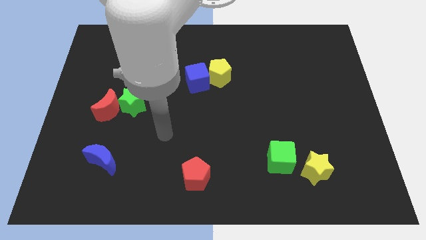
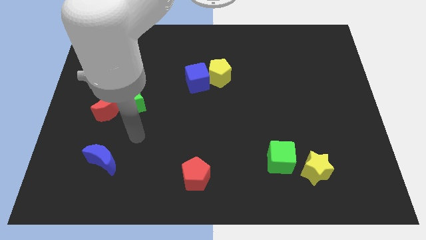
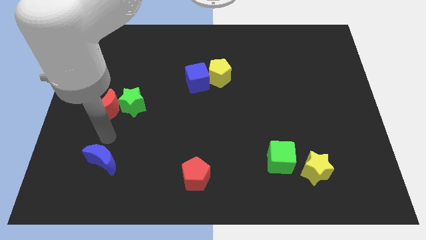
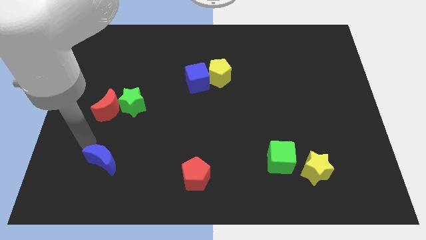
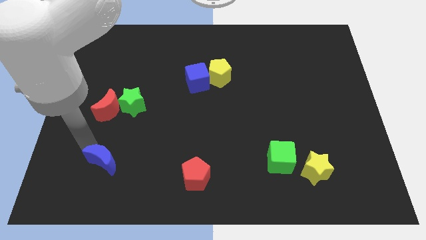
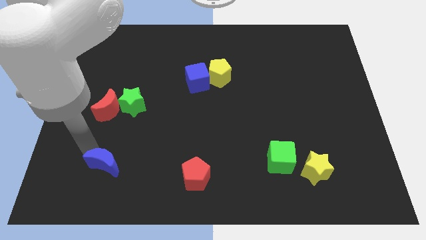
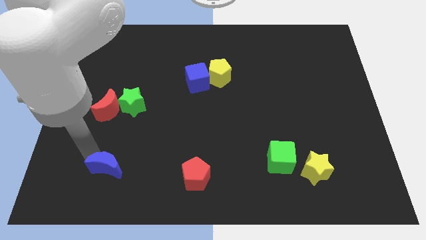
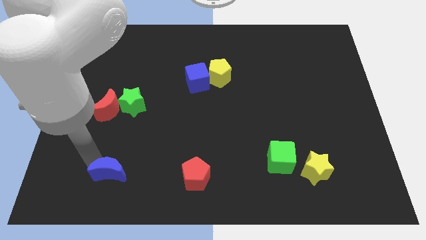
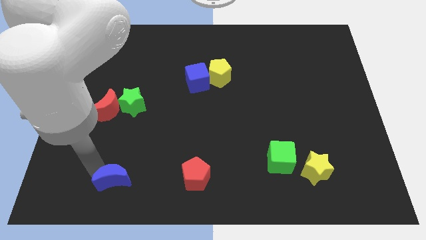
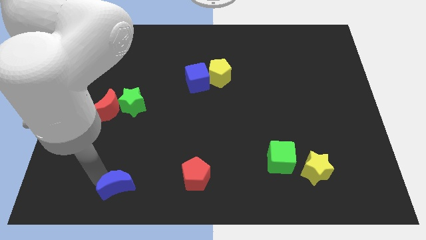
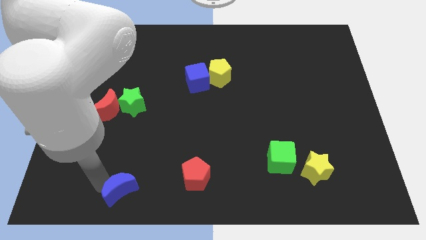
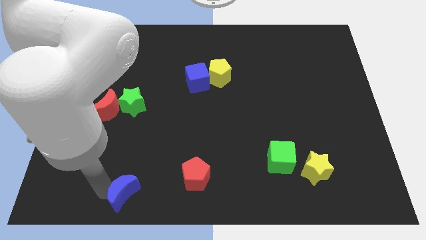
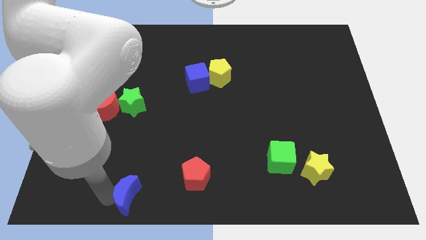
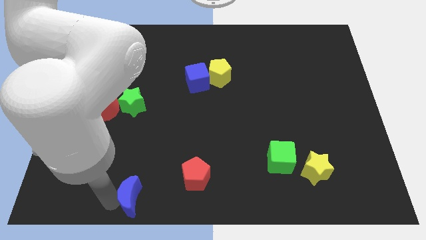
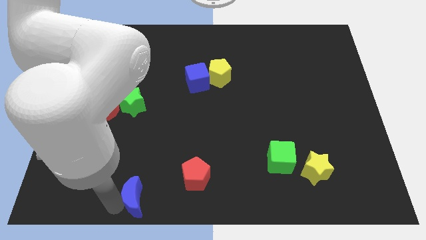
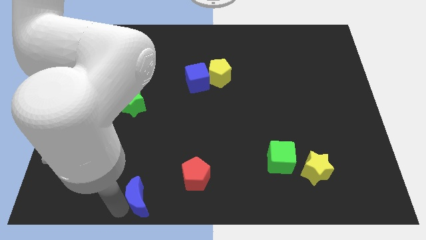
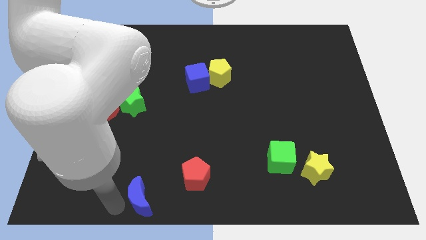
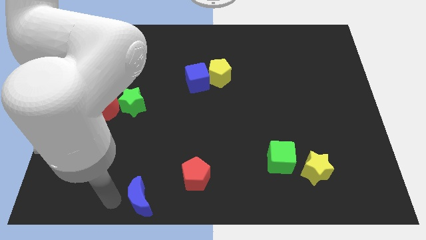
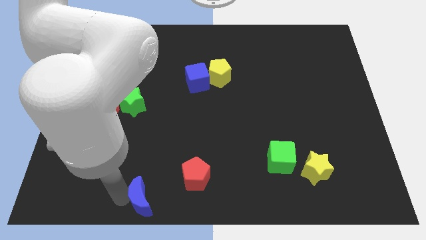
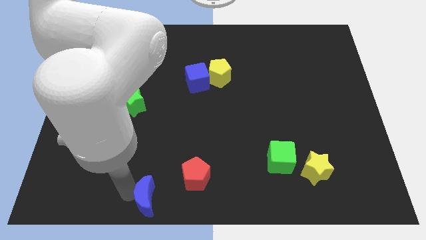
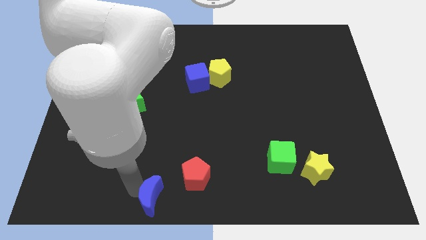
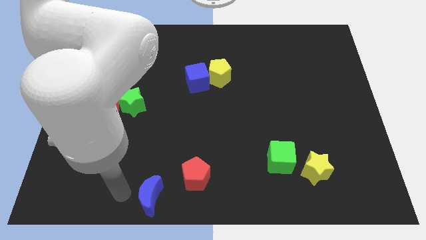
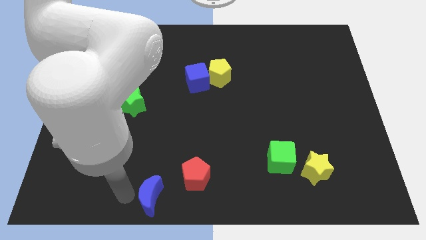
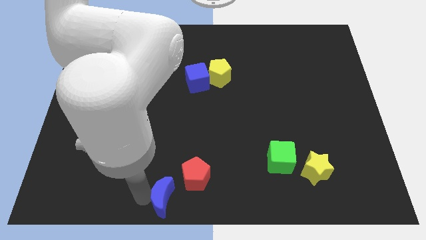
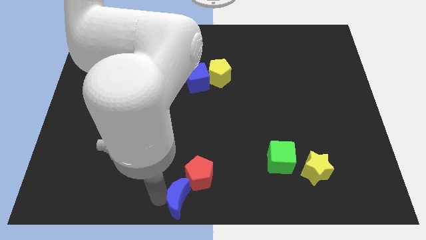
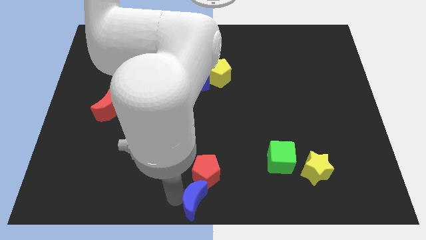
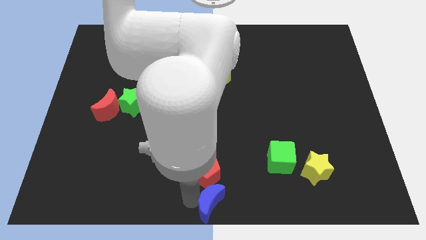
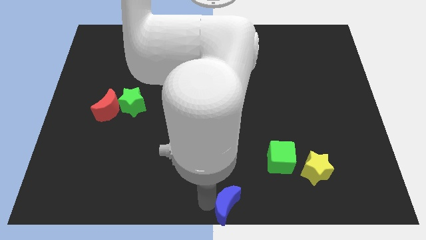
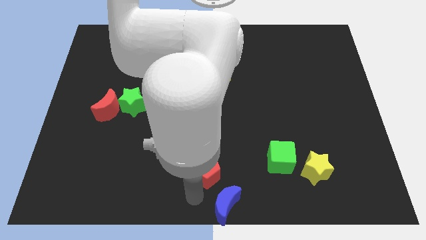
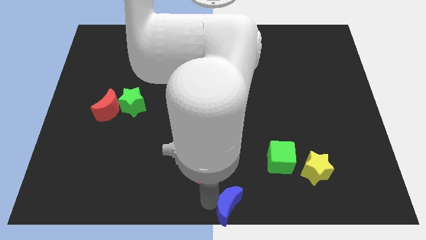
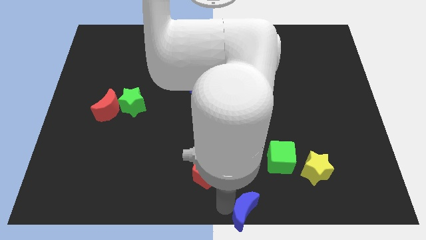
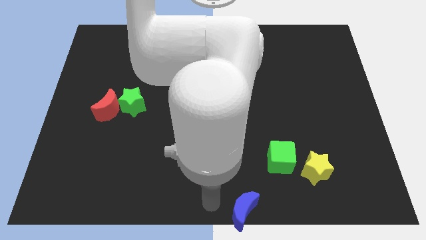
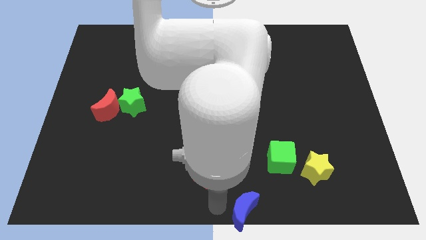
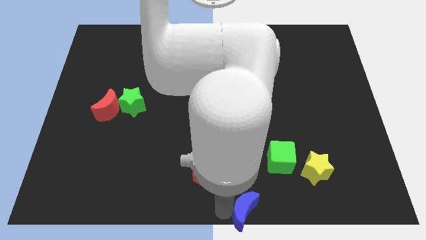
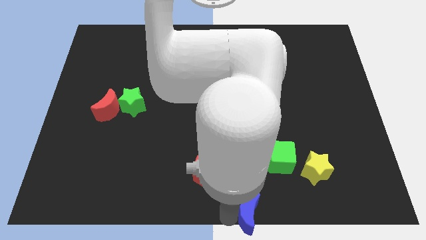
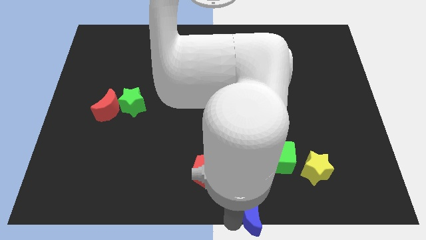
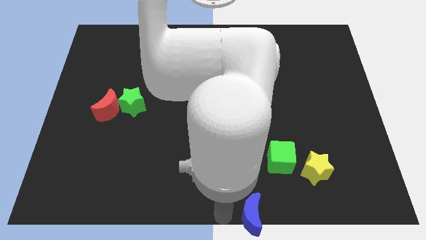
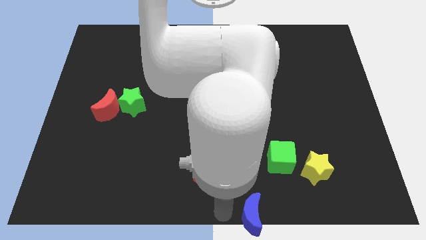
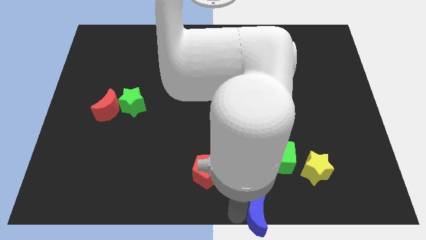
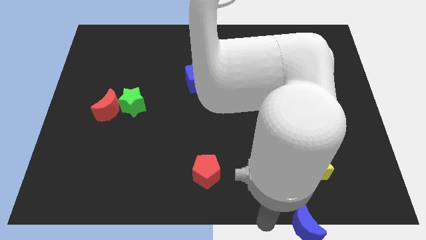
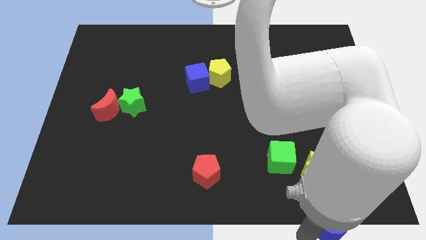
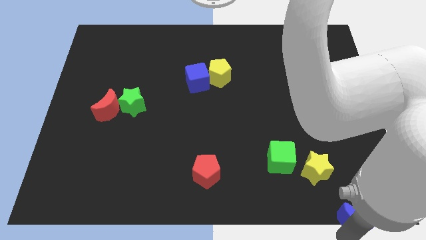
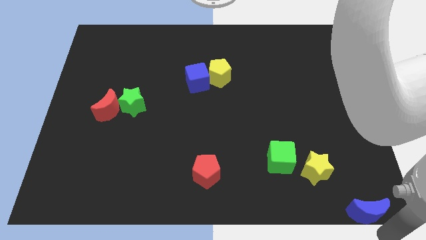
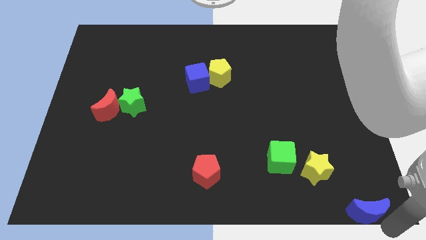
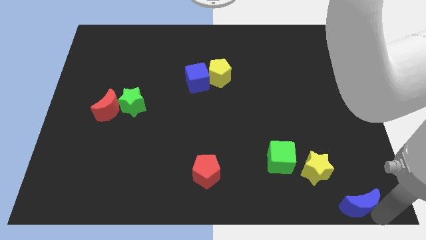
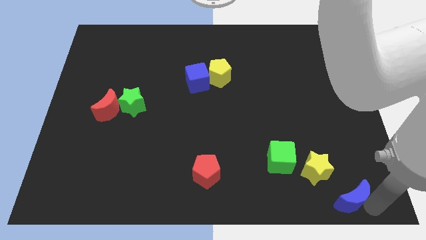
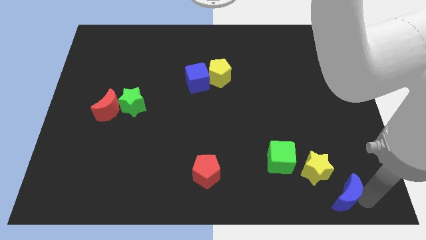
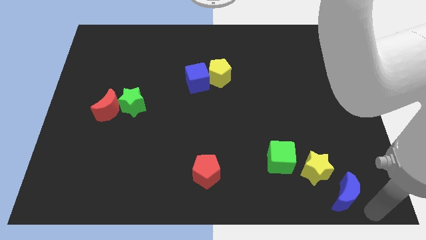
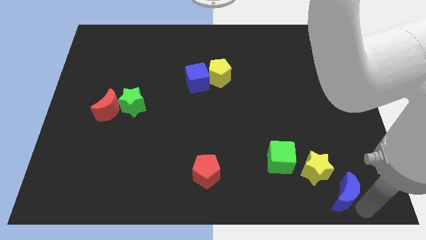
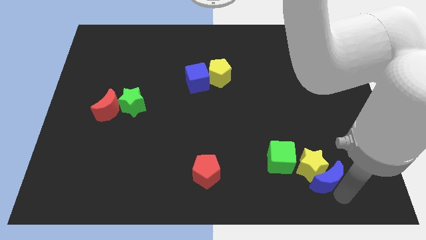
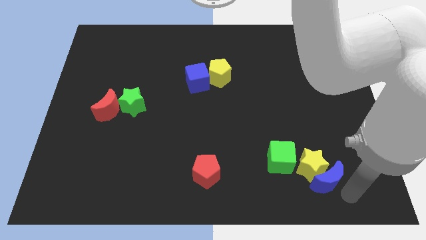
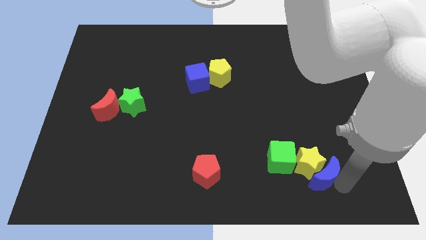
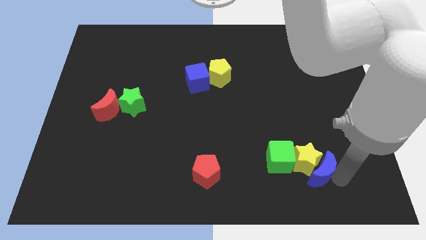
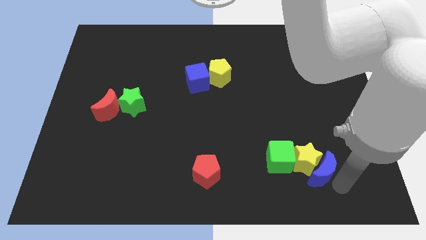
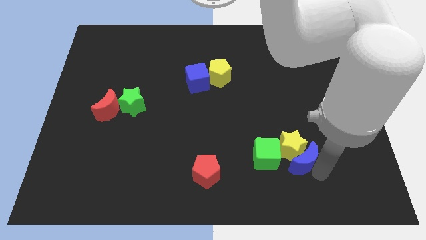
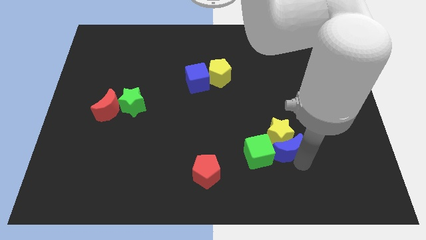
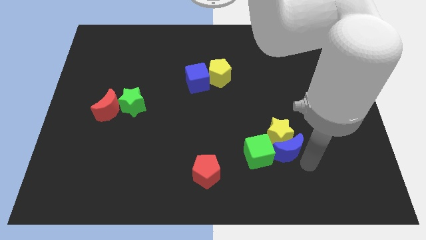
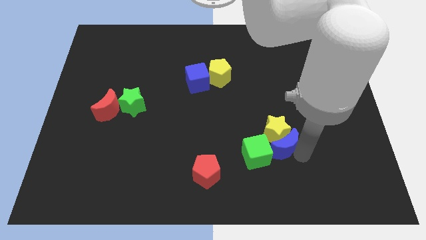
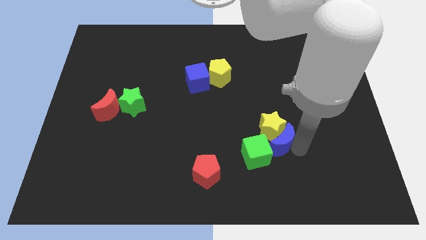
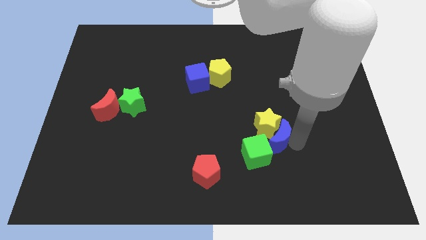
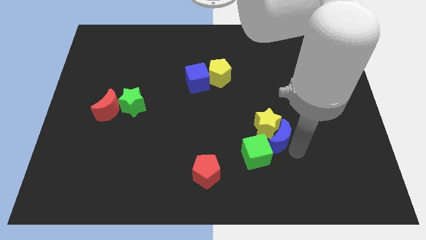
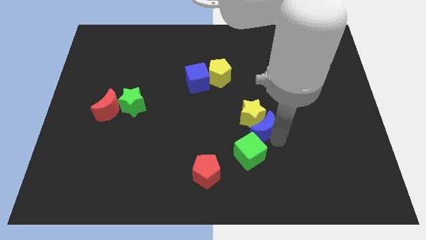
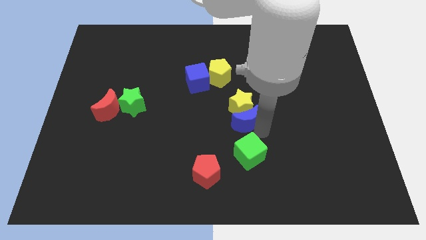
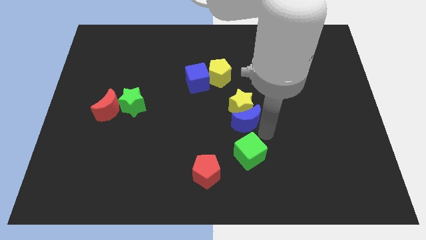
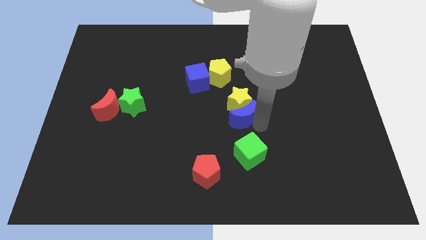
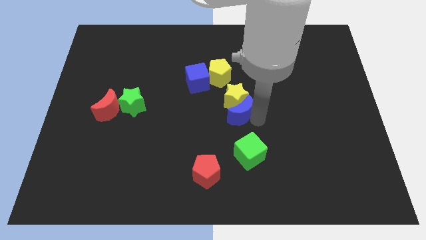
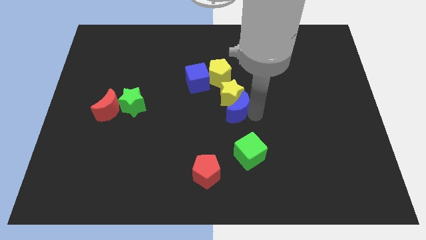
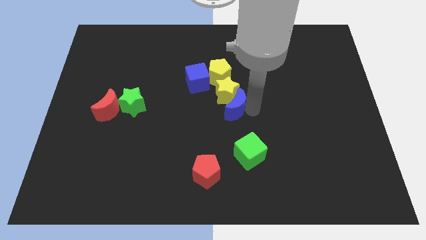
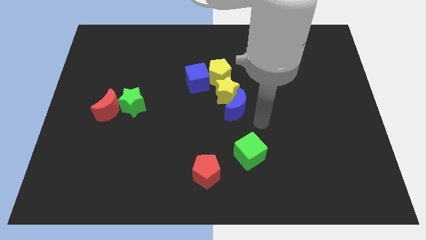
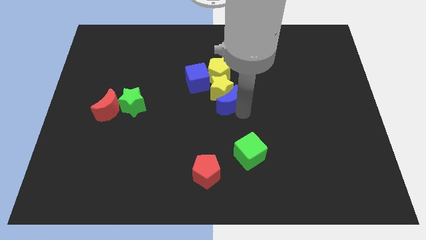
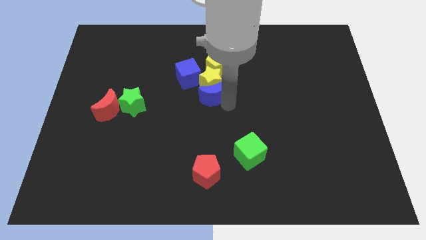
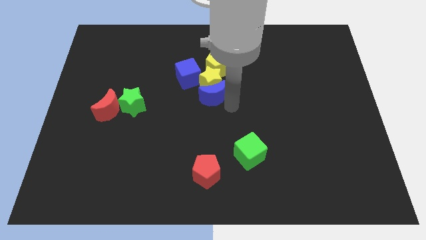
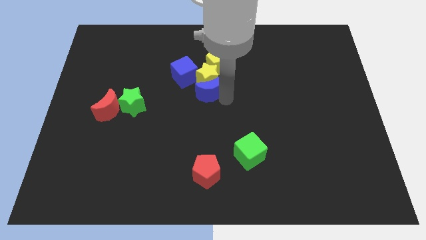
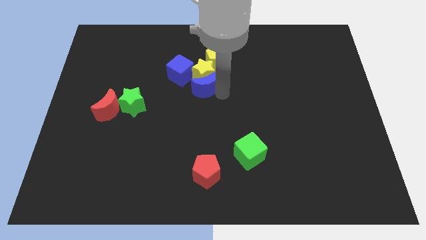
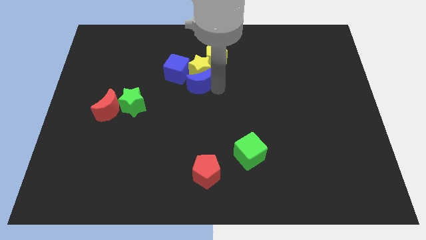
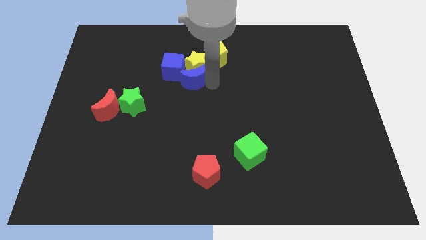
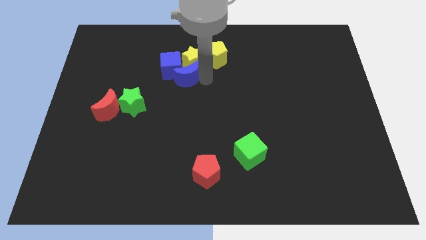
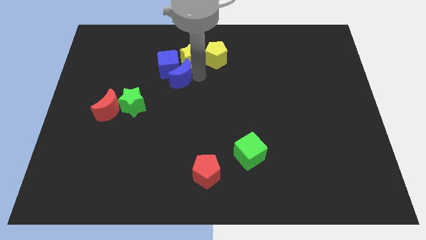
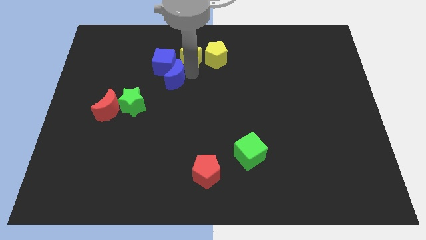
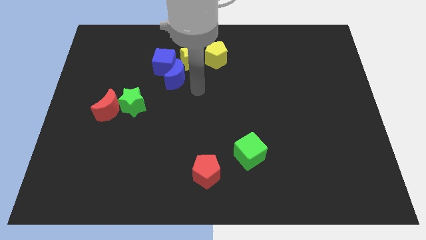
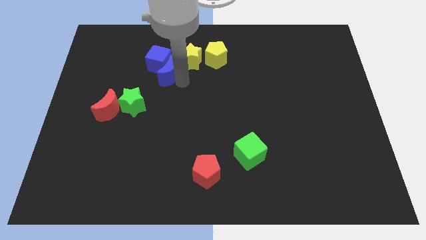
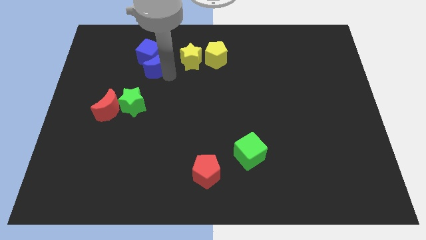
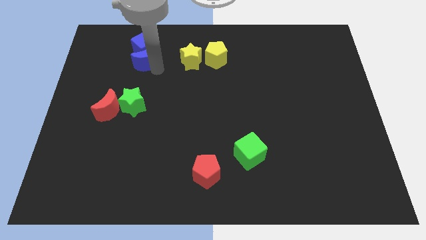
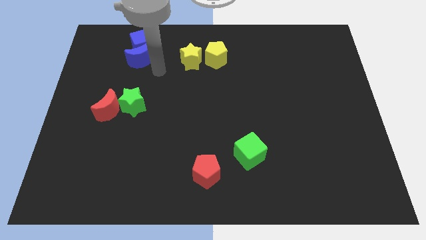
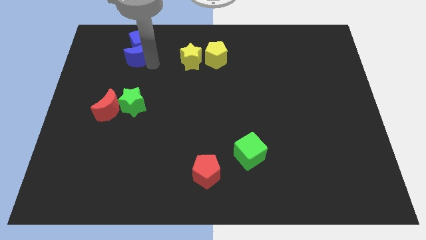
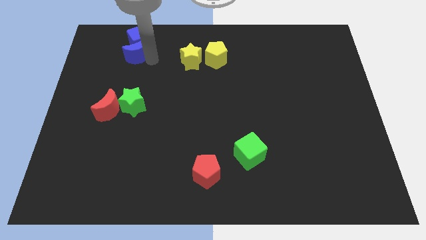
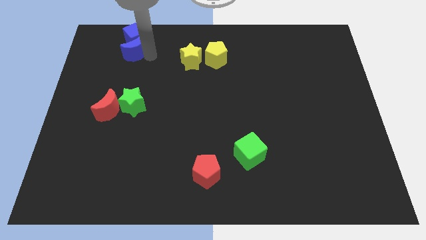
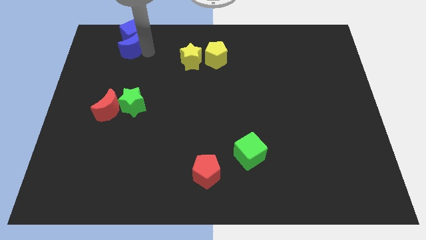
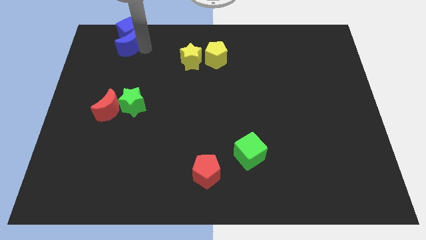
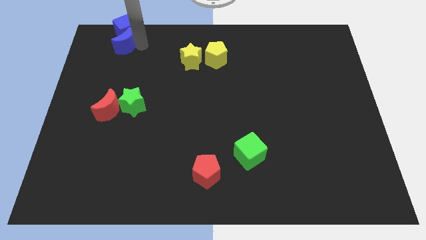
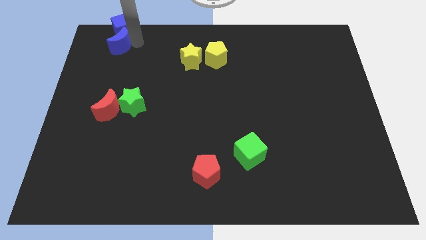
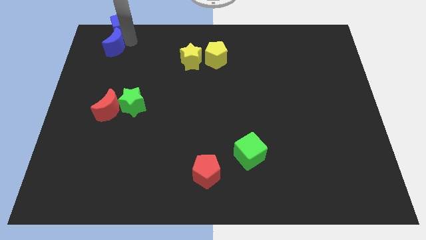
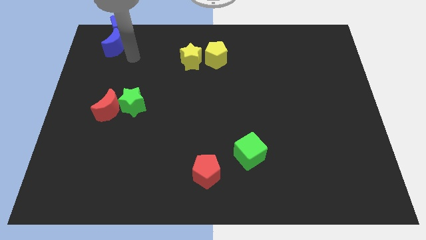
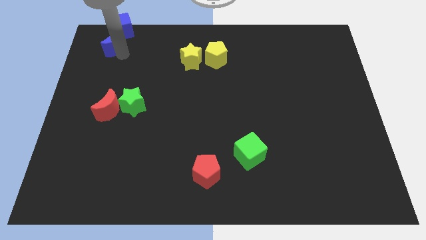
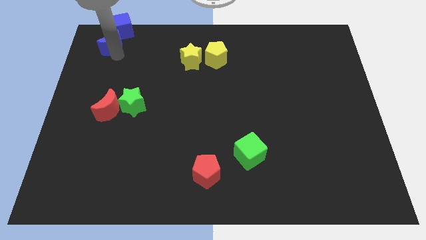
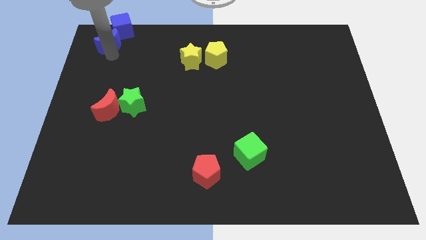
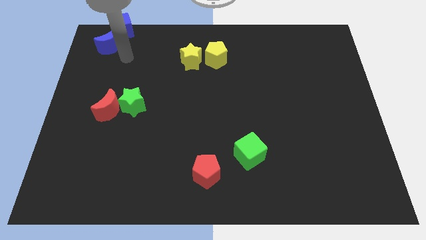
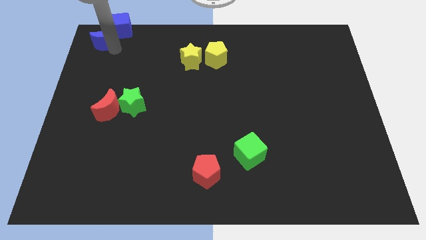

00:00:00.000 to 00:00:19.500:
slide the blue moon to the top left corner
